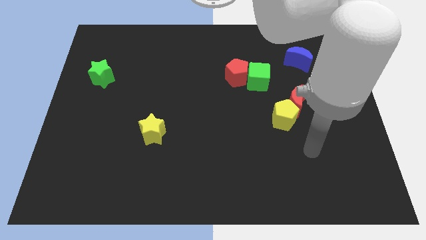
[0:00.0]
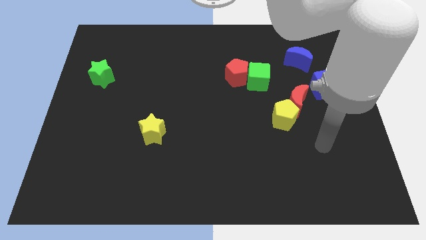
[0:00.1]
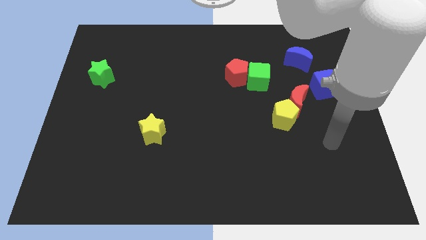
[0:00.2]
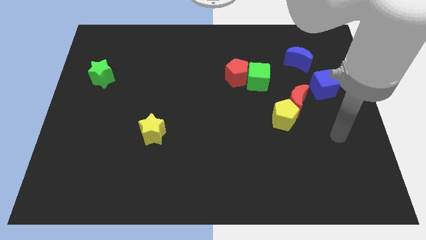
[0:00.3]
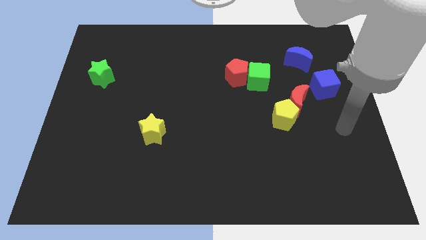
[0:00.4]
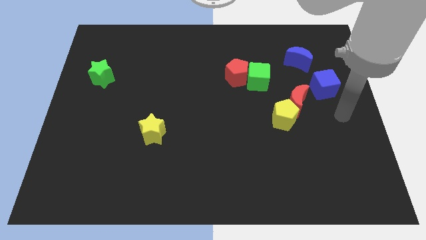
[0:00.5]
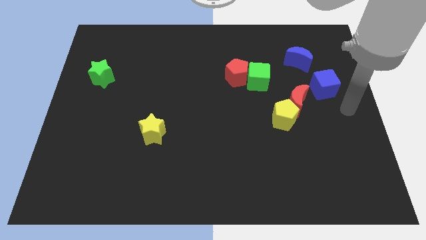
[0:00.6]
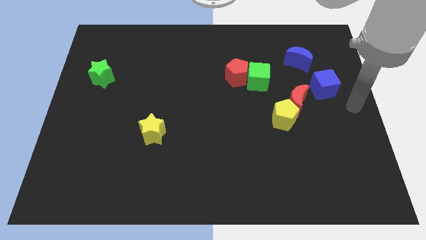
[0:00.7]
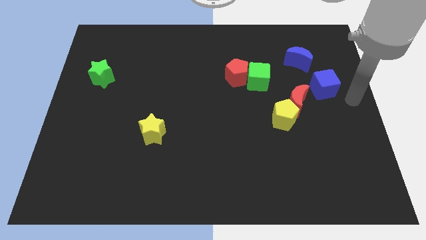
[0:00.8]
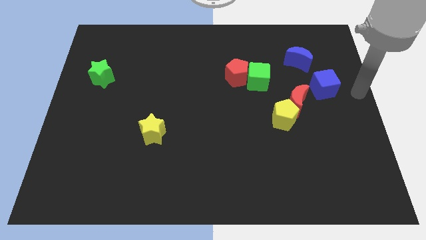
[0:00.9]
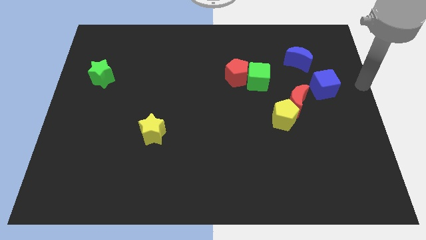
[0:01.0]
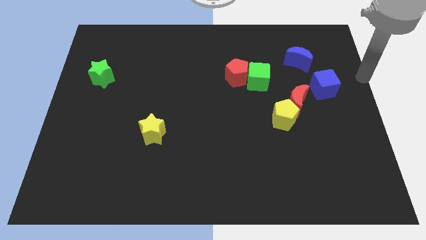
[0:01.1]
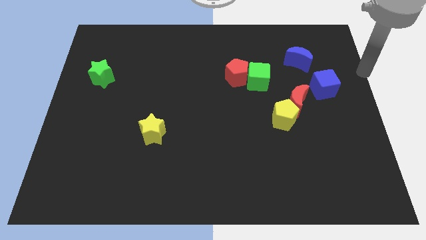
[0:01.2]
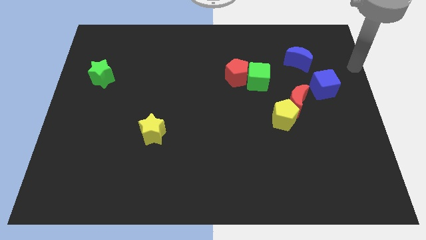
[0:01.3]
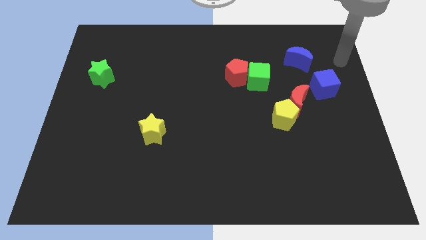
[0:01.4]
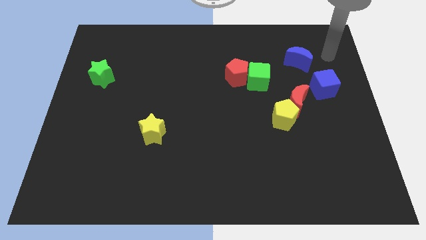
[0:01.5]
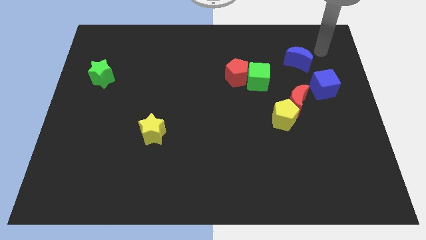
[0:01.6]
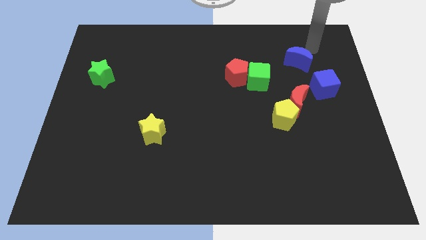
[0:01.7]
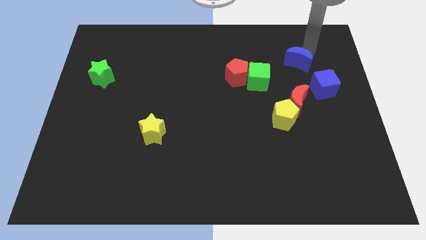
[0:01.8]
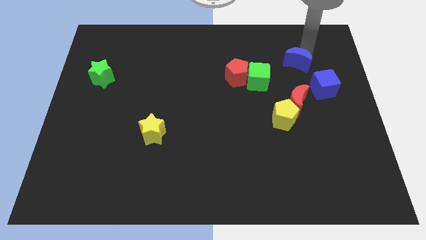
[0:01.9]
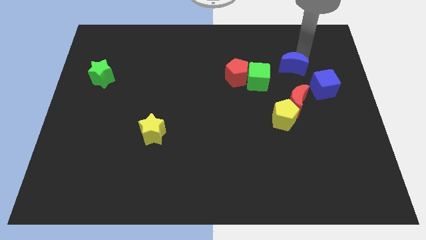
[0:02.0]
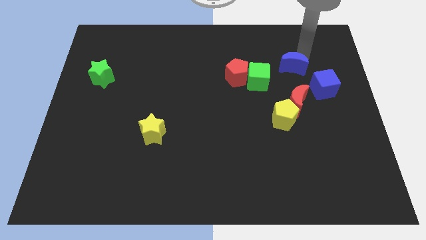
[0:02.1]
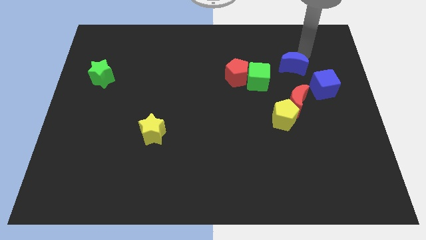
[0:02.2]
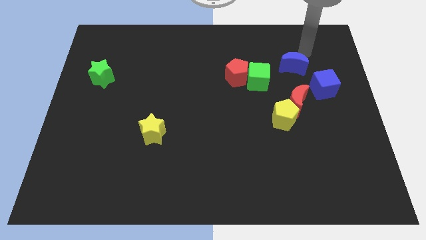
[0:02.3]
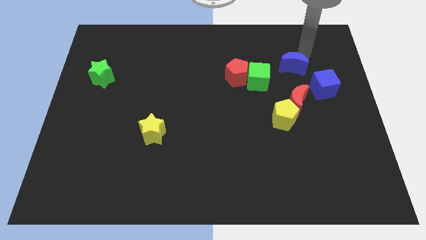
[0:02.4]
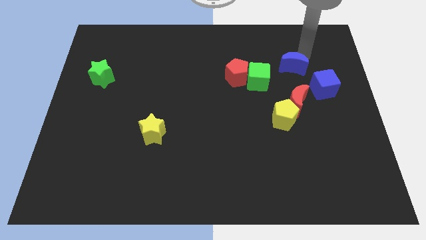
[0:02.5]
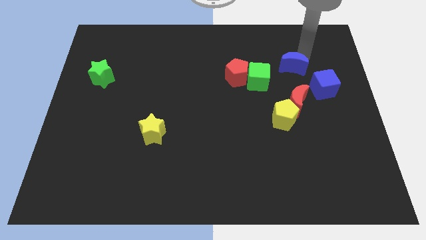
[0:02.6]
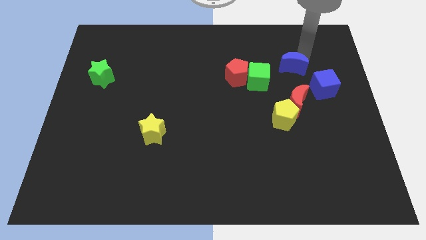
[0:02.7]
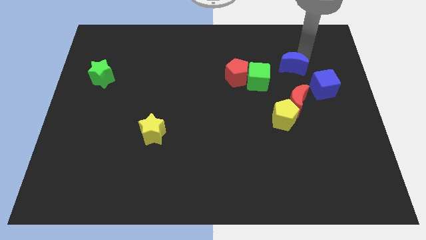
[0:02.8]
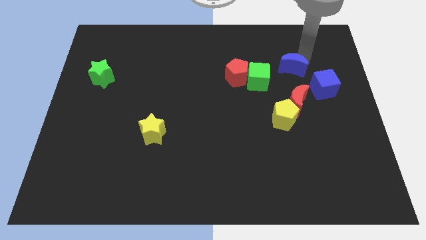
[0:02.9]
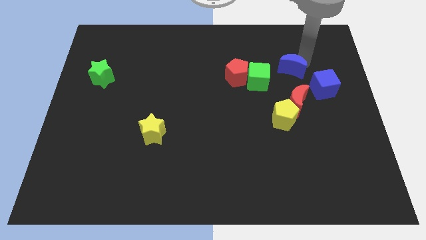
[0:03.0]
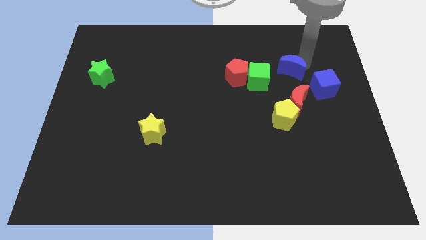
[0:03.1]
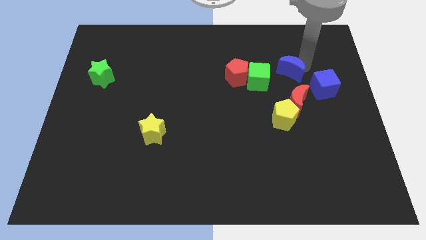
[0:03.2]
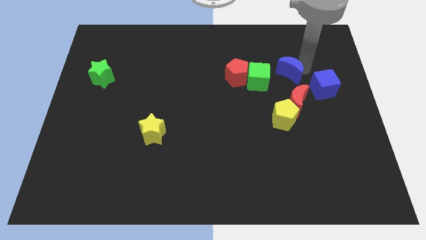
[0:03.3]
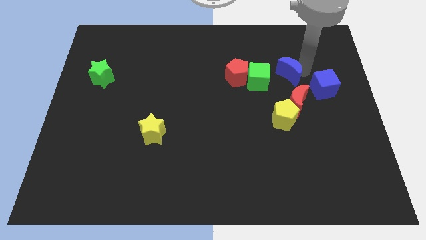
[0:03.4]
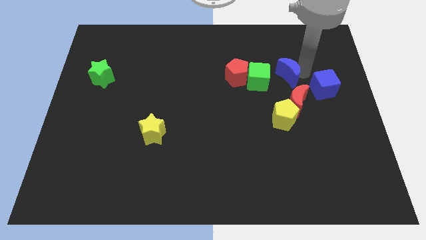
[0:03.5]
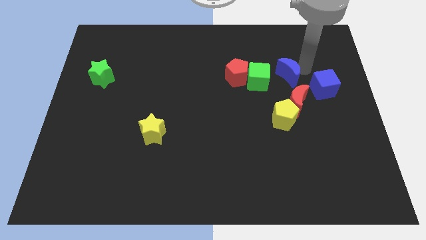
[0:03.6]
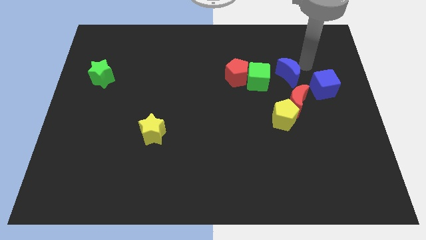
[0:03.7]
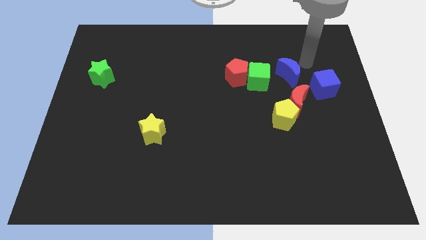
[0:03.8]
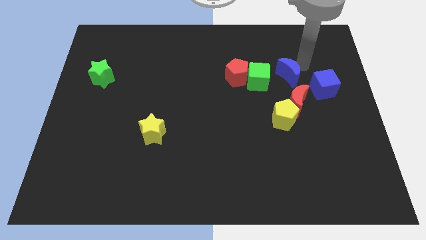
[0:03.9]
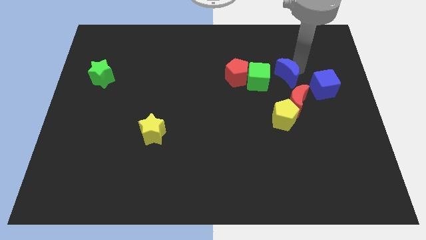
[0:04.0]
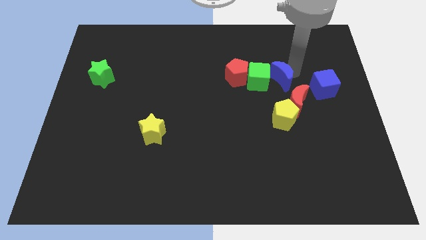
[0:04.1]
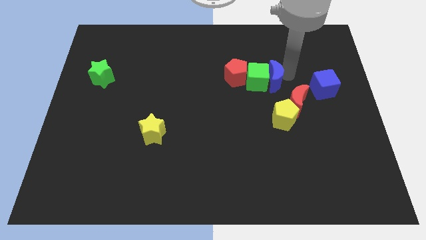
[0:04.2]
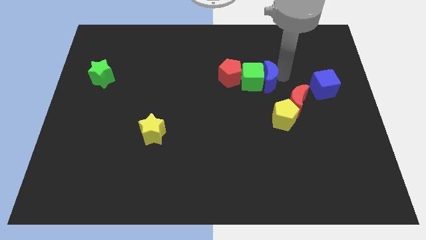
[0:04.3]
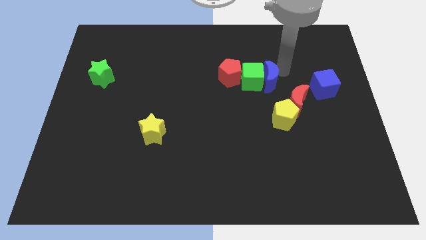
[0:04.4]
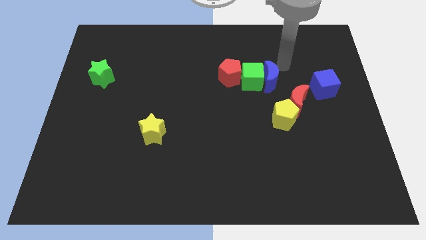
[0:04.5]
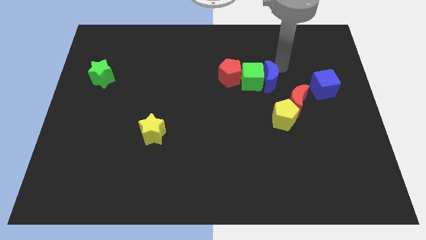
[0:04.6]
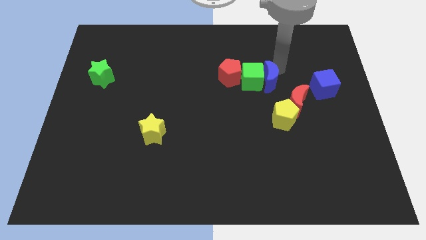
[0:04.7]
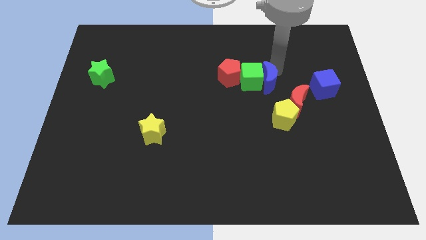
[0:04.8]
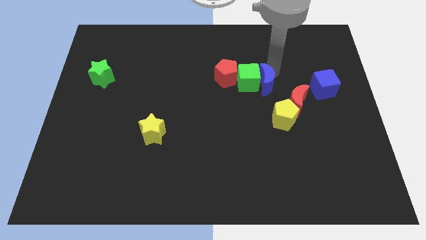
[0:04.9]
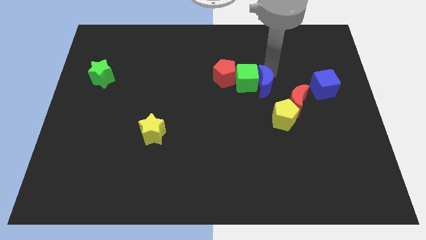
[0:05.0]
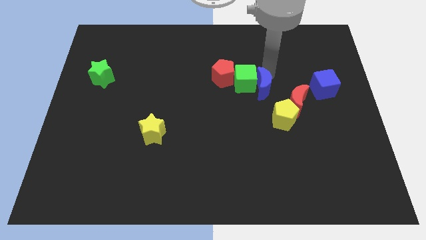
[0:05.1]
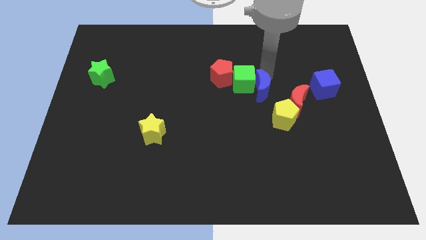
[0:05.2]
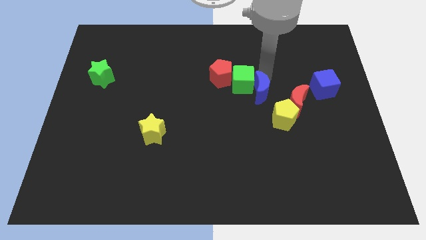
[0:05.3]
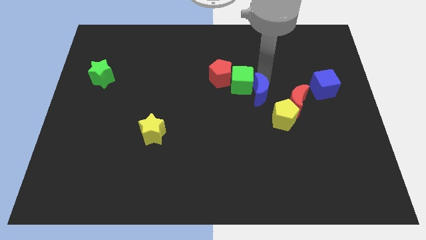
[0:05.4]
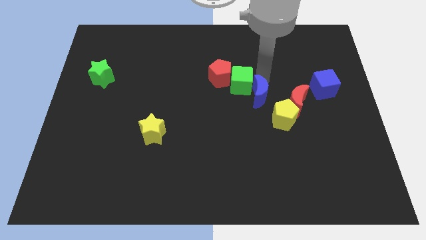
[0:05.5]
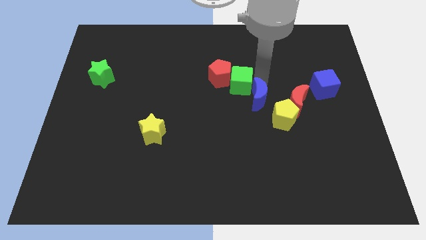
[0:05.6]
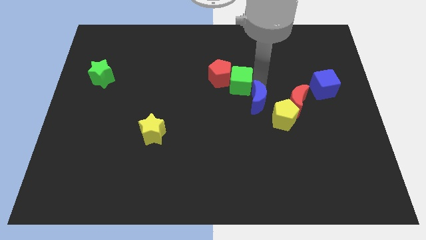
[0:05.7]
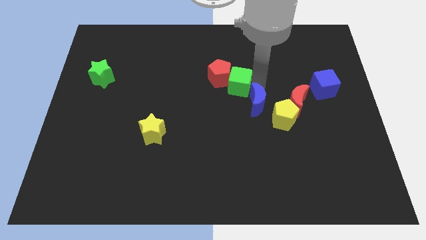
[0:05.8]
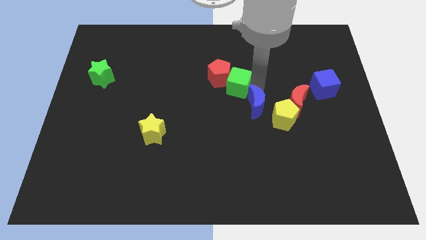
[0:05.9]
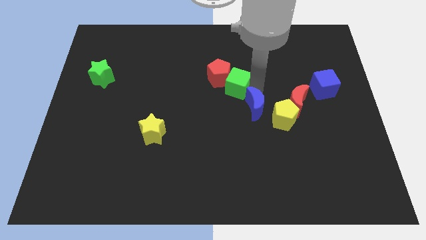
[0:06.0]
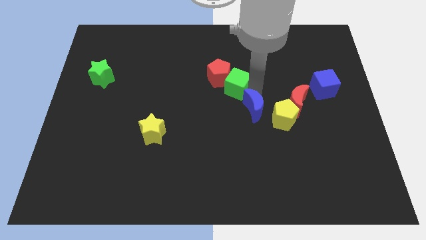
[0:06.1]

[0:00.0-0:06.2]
push the blue moon downwards and then to the left

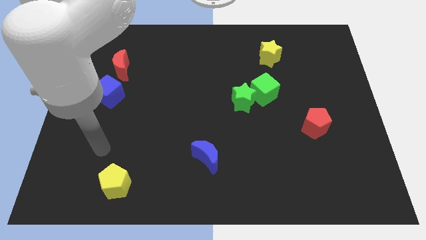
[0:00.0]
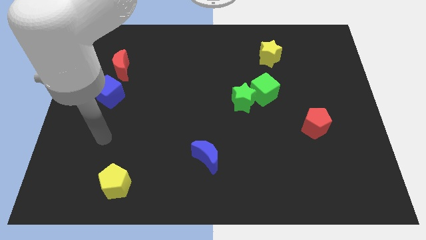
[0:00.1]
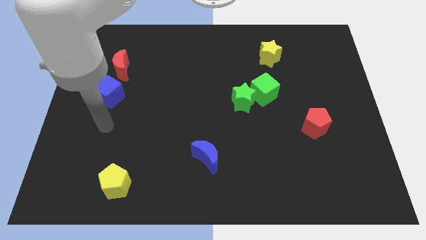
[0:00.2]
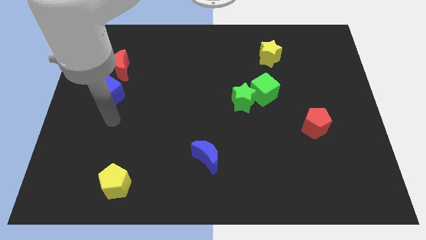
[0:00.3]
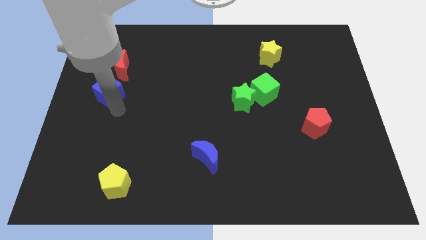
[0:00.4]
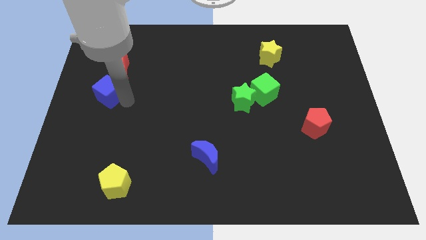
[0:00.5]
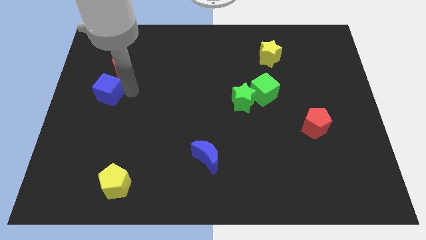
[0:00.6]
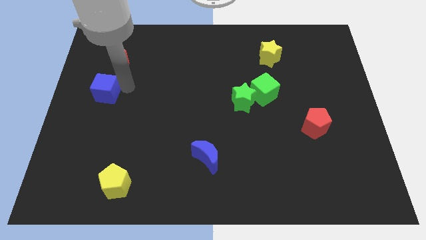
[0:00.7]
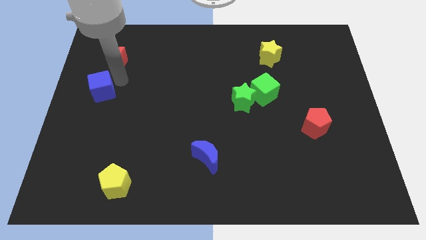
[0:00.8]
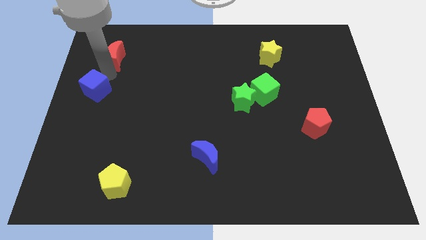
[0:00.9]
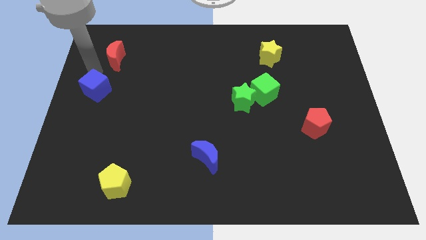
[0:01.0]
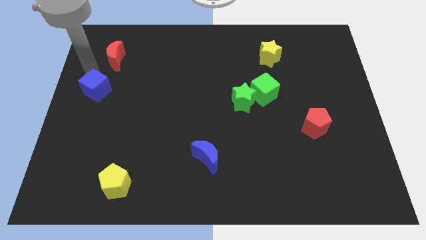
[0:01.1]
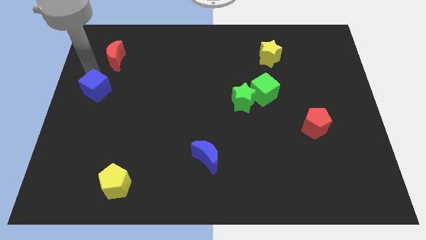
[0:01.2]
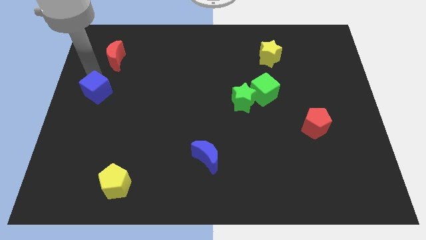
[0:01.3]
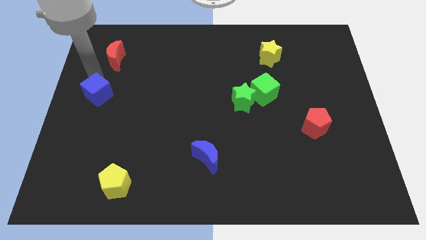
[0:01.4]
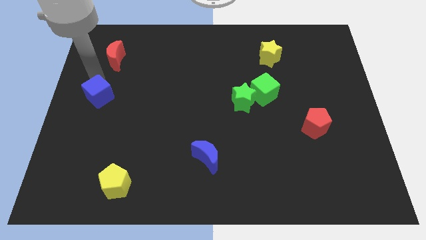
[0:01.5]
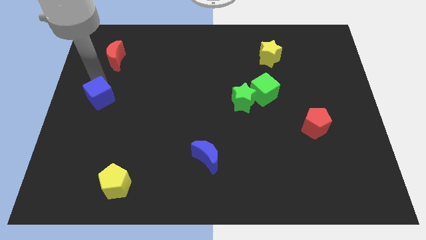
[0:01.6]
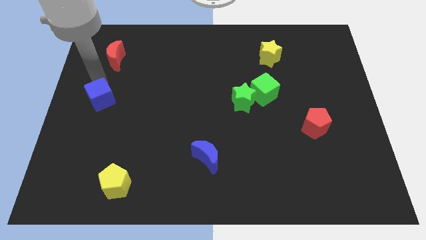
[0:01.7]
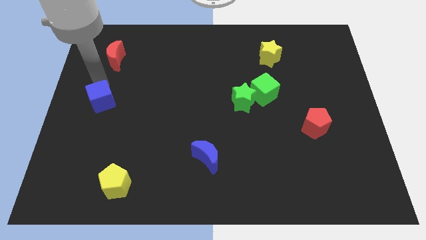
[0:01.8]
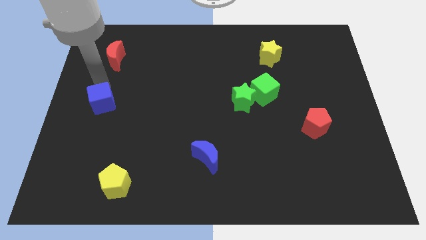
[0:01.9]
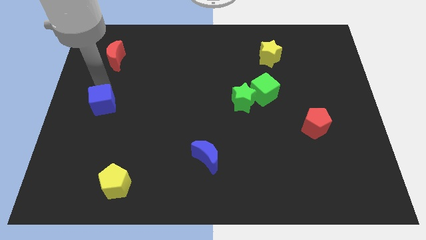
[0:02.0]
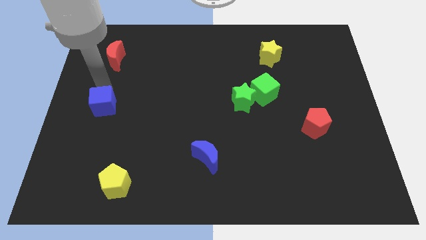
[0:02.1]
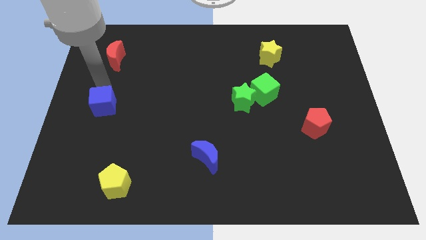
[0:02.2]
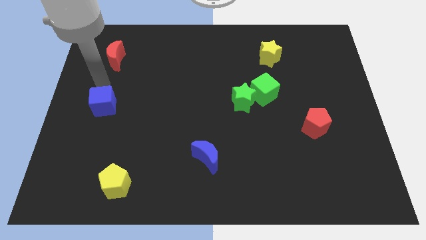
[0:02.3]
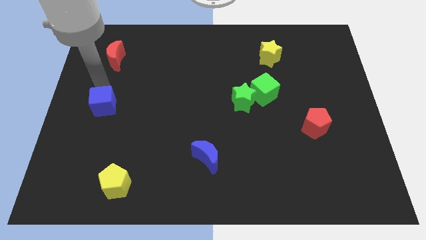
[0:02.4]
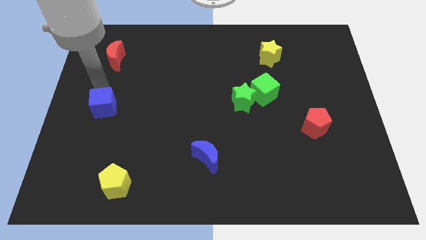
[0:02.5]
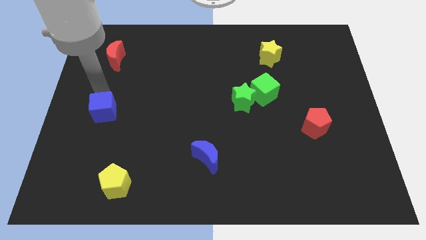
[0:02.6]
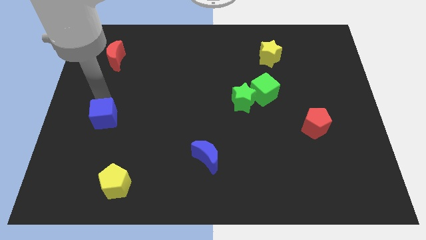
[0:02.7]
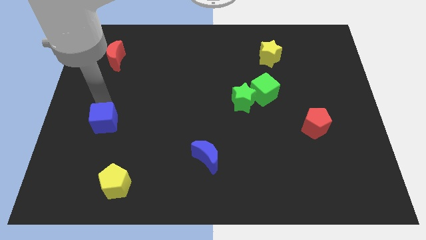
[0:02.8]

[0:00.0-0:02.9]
slightly move the blue cube downwards
